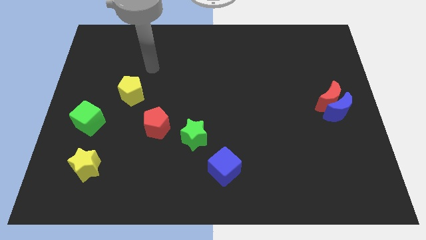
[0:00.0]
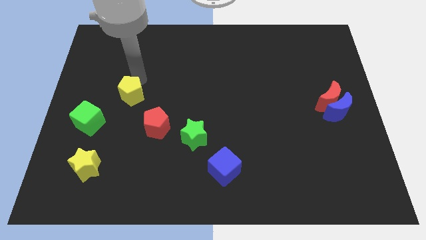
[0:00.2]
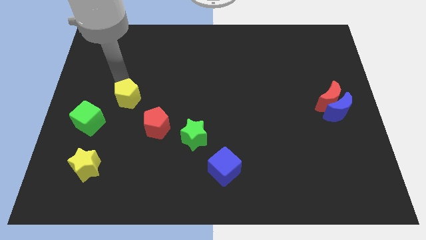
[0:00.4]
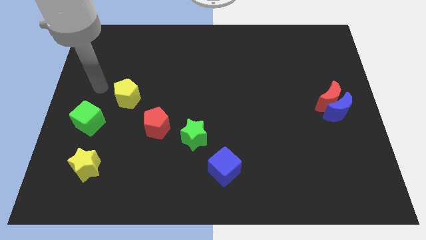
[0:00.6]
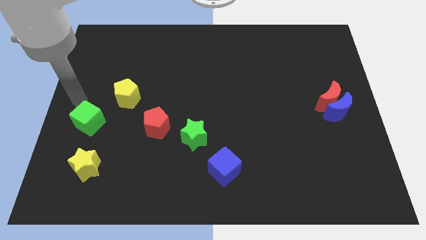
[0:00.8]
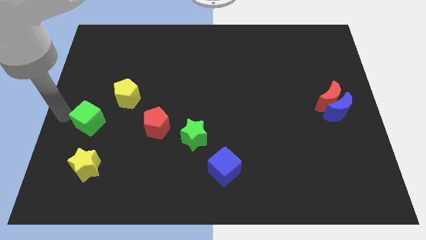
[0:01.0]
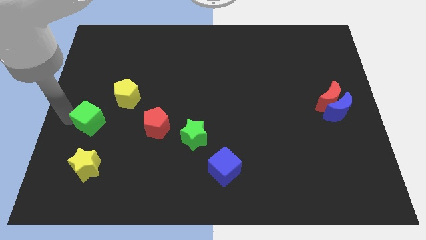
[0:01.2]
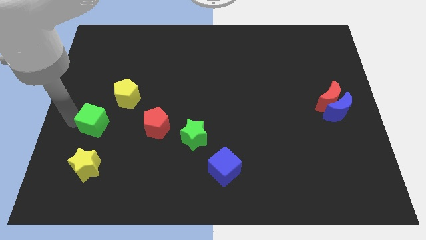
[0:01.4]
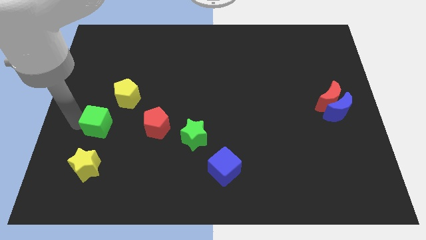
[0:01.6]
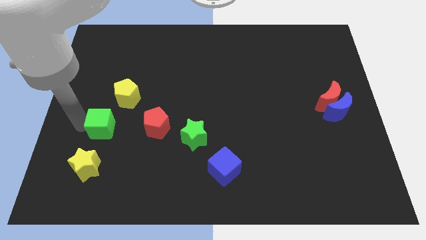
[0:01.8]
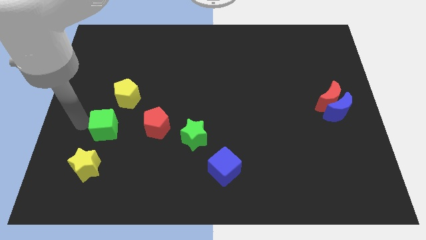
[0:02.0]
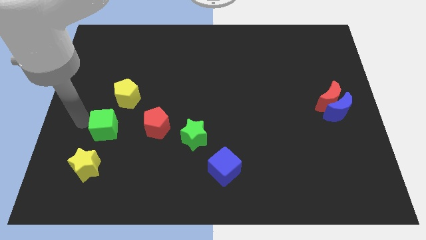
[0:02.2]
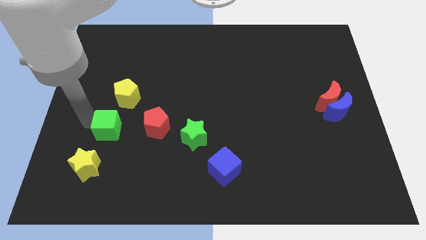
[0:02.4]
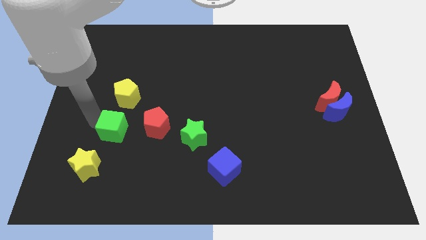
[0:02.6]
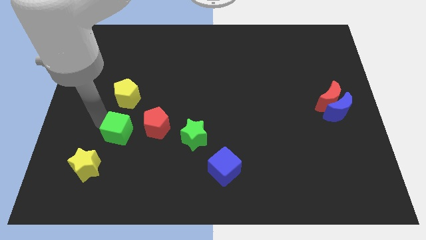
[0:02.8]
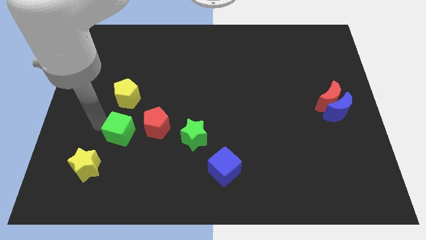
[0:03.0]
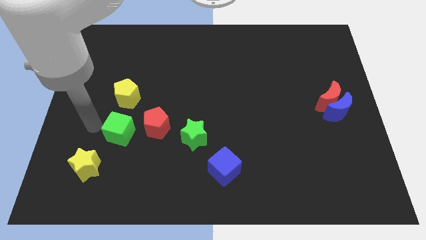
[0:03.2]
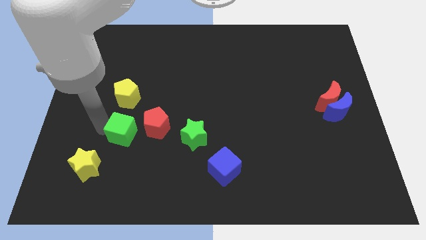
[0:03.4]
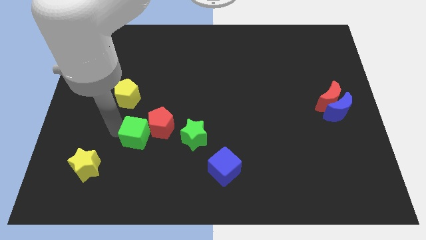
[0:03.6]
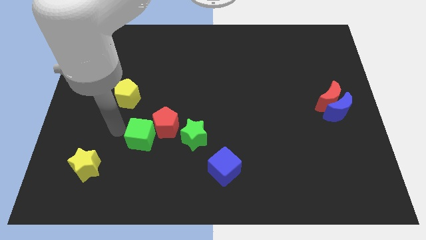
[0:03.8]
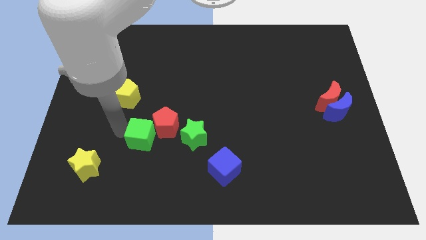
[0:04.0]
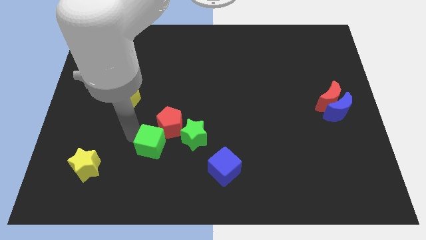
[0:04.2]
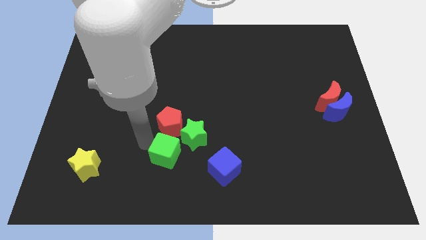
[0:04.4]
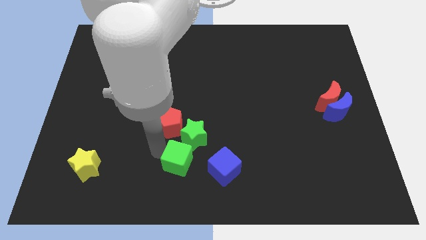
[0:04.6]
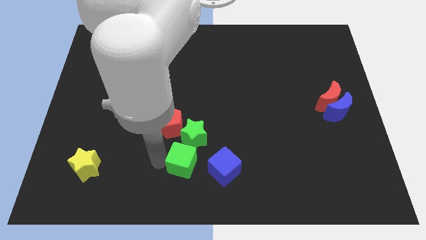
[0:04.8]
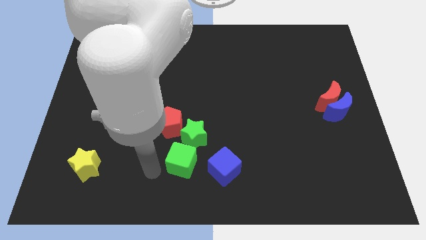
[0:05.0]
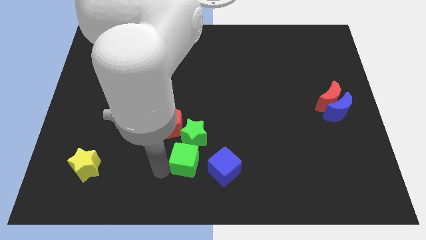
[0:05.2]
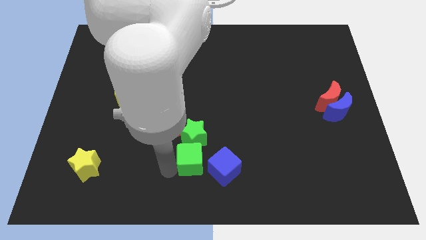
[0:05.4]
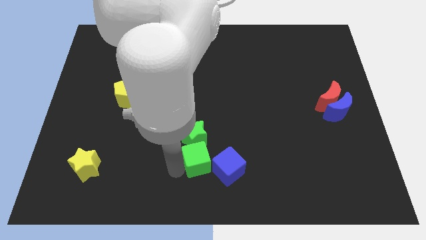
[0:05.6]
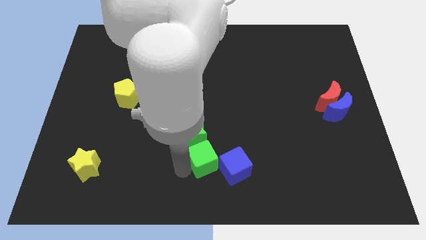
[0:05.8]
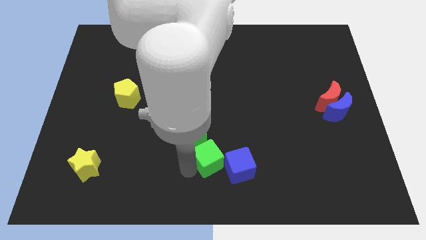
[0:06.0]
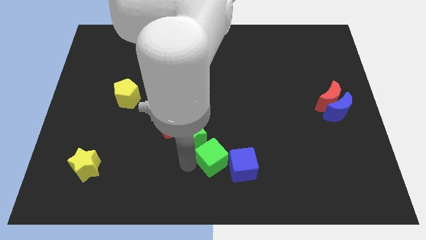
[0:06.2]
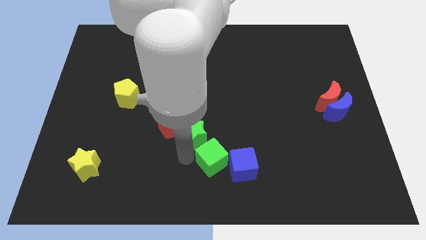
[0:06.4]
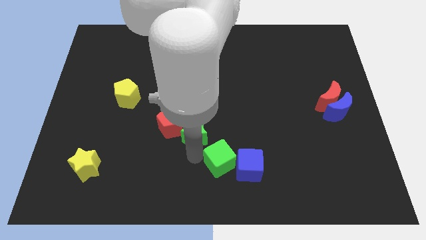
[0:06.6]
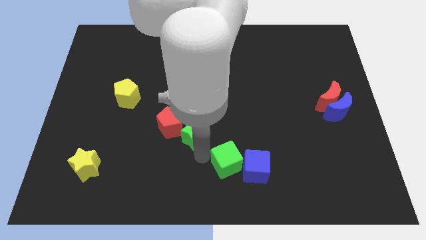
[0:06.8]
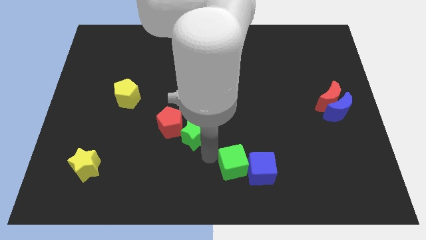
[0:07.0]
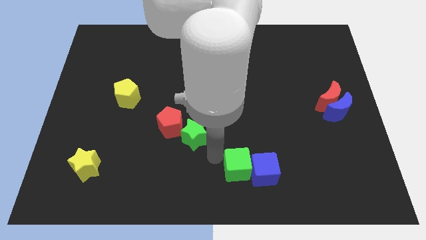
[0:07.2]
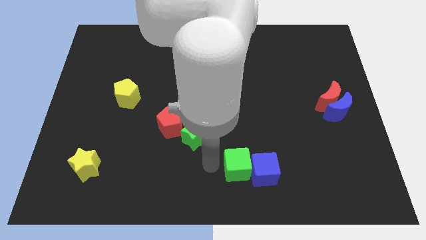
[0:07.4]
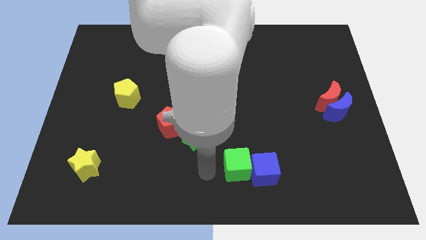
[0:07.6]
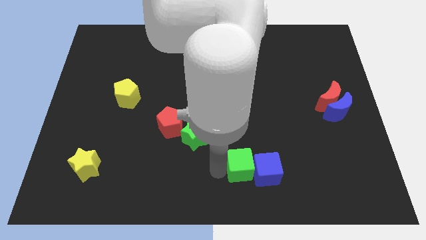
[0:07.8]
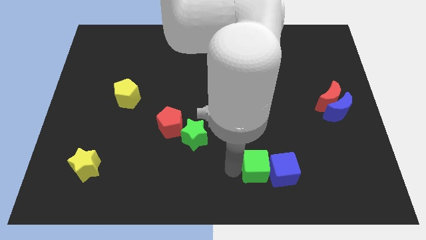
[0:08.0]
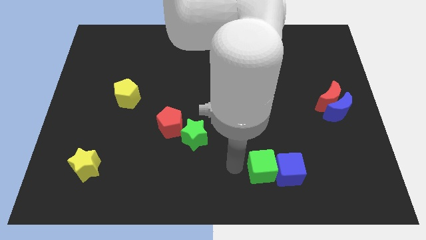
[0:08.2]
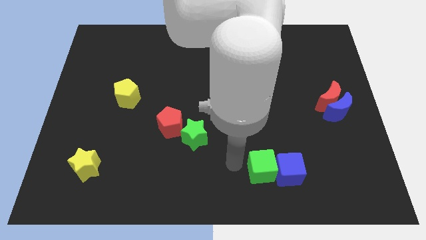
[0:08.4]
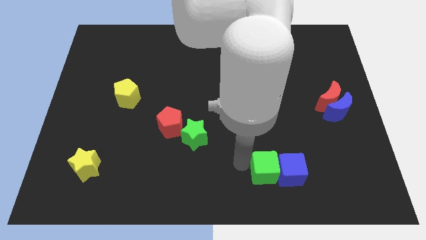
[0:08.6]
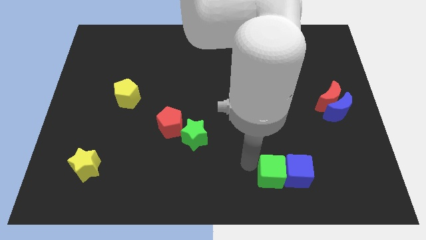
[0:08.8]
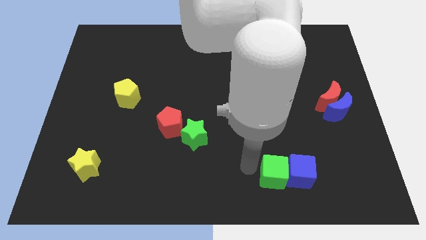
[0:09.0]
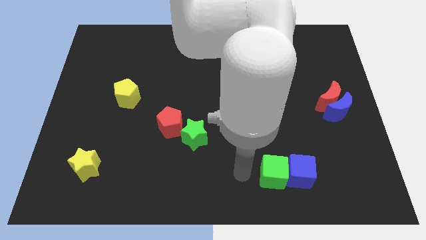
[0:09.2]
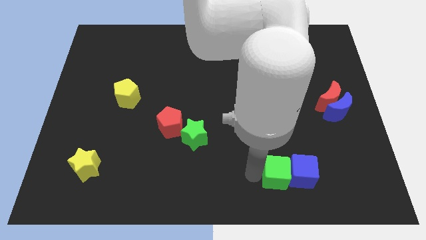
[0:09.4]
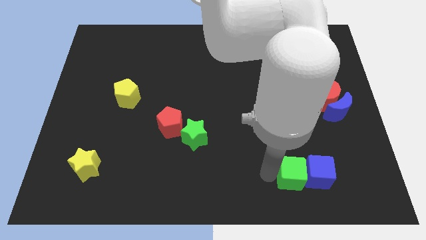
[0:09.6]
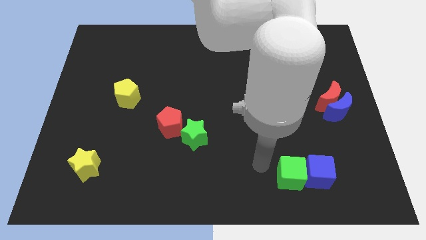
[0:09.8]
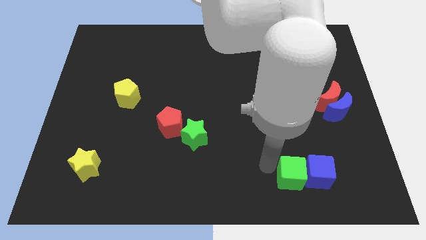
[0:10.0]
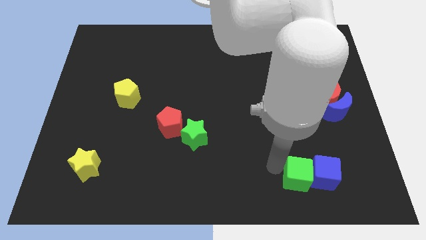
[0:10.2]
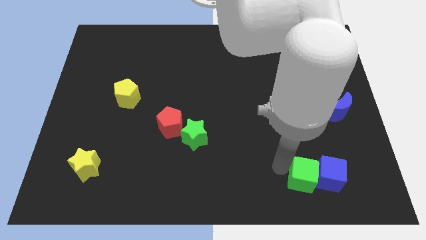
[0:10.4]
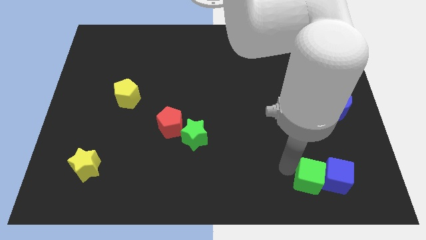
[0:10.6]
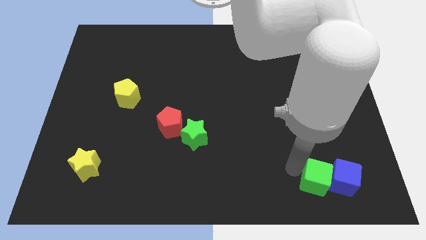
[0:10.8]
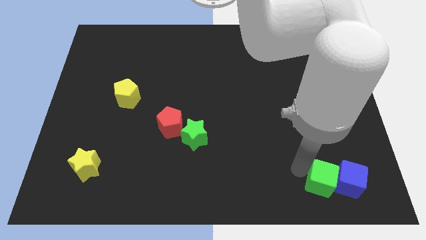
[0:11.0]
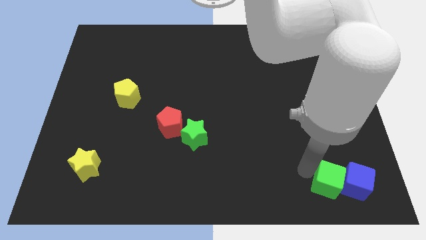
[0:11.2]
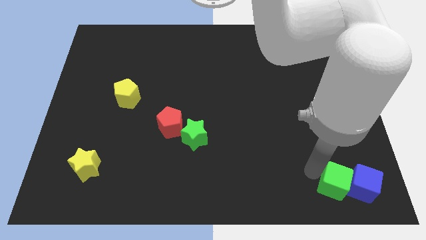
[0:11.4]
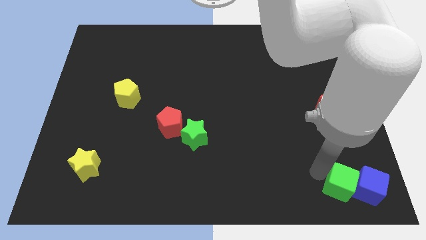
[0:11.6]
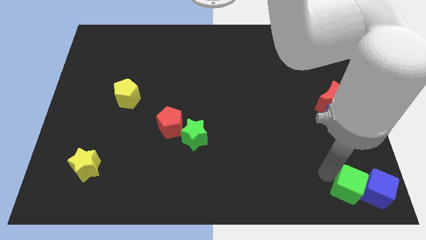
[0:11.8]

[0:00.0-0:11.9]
slide the green cube to the bottom right of the board
